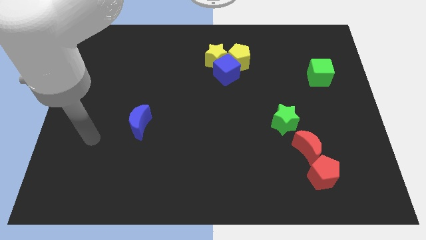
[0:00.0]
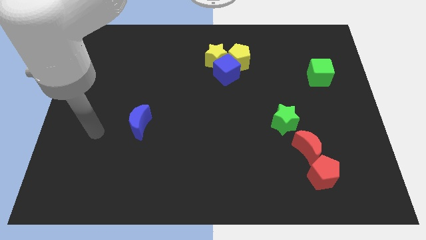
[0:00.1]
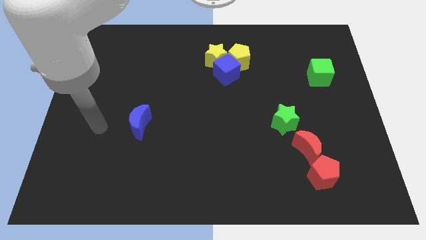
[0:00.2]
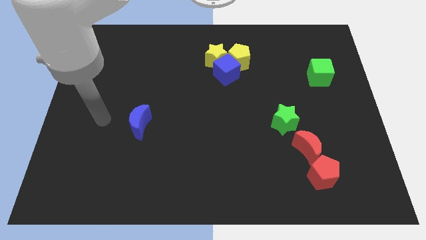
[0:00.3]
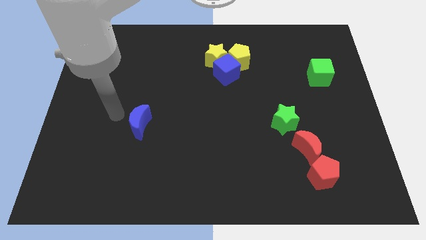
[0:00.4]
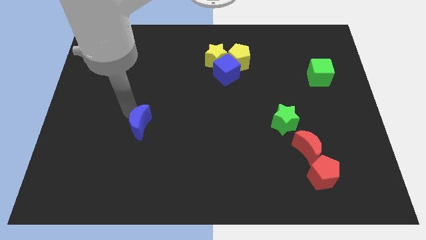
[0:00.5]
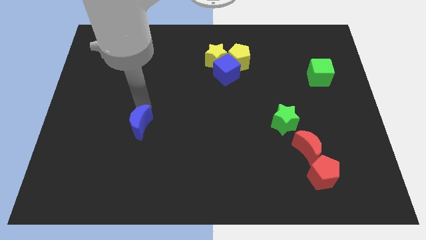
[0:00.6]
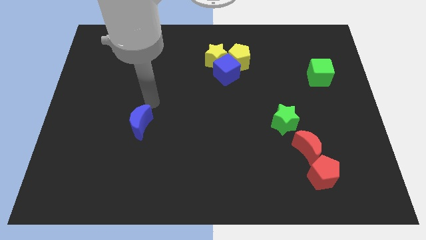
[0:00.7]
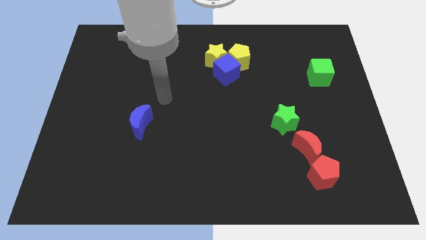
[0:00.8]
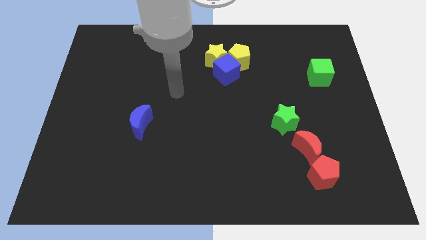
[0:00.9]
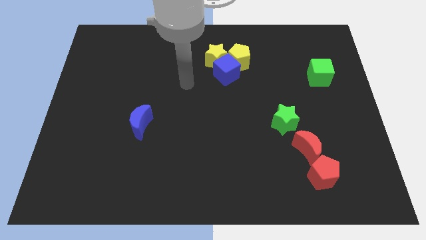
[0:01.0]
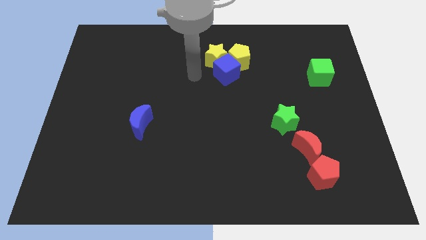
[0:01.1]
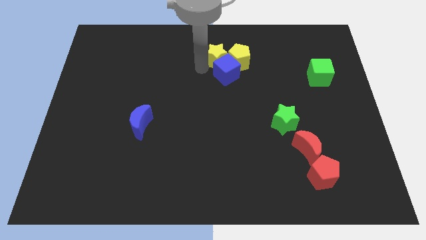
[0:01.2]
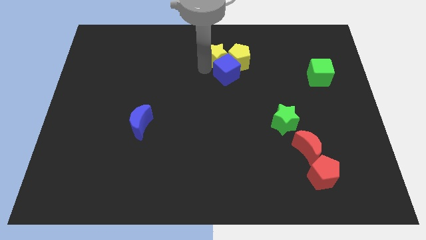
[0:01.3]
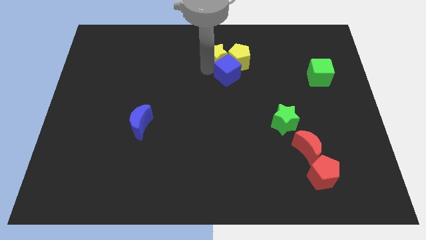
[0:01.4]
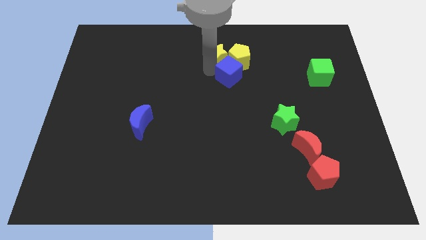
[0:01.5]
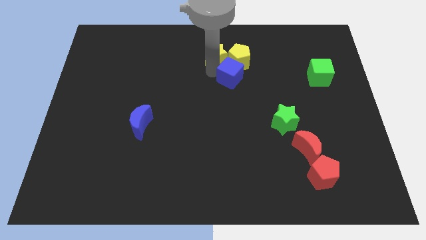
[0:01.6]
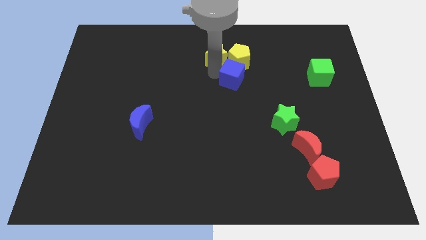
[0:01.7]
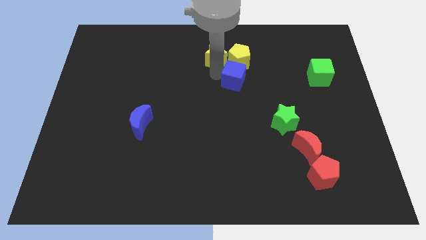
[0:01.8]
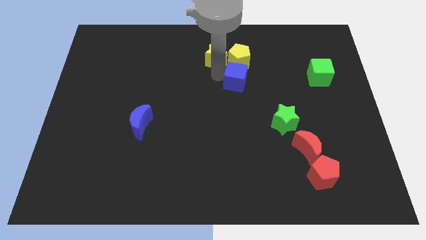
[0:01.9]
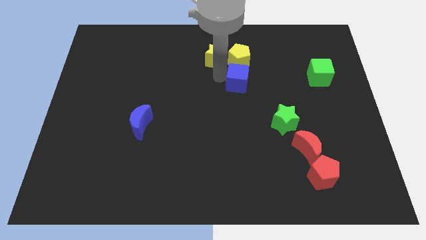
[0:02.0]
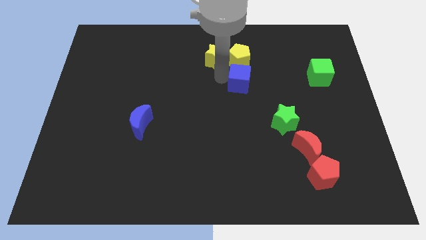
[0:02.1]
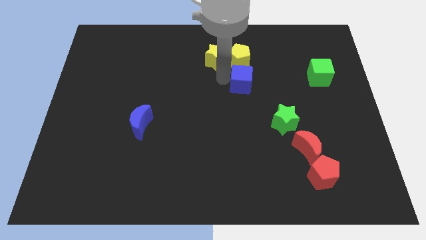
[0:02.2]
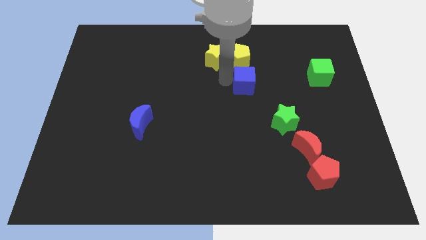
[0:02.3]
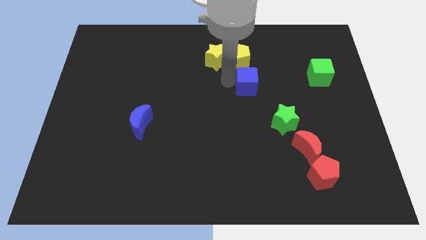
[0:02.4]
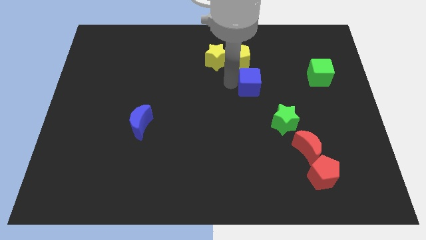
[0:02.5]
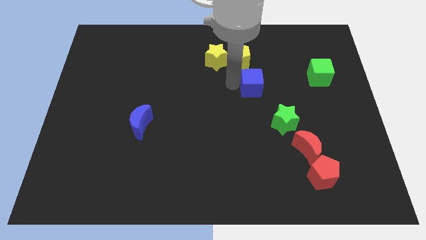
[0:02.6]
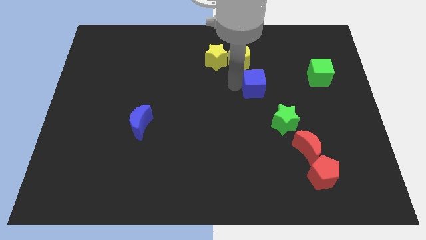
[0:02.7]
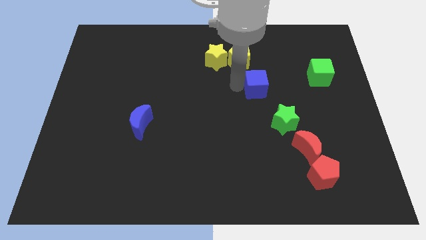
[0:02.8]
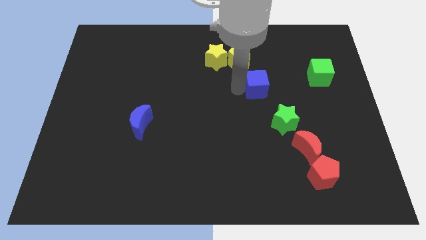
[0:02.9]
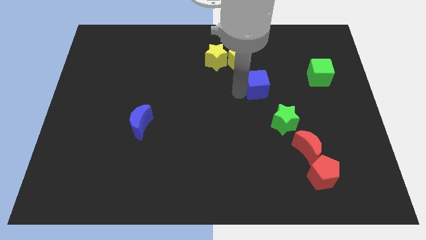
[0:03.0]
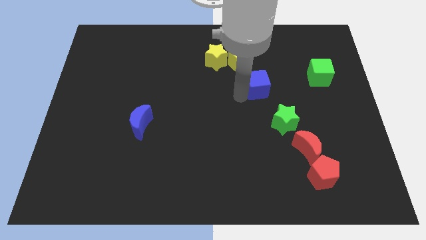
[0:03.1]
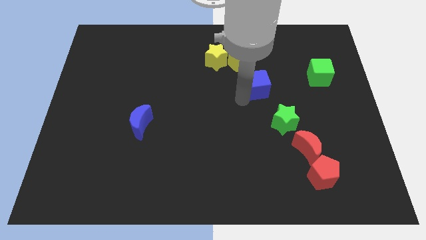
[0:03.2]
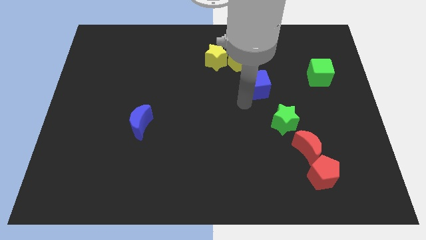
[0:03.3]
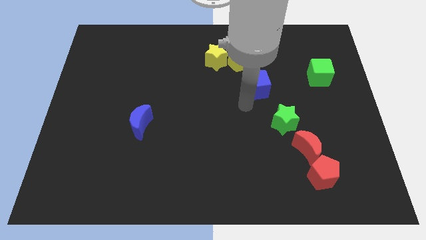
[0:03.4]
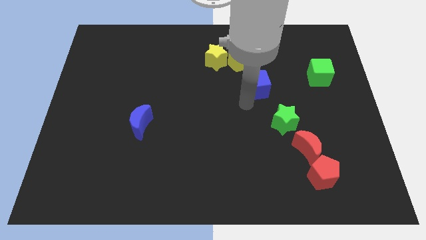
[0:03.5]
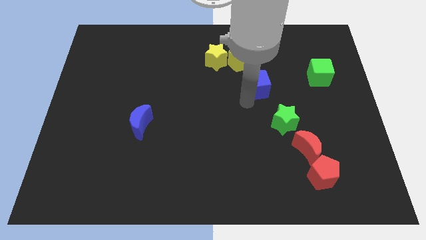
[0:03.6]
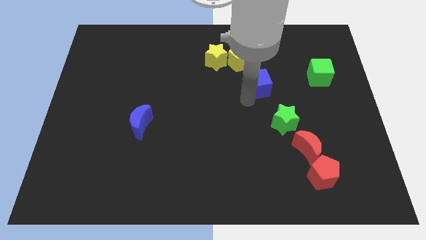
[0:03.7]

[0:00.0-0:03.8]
slightly slide the blue cube right

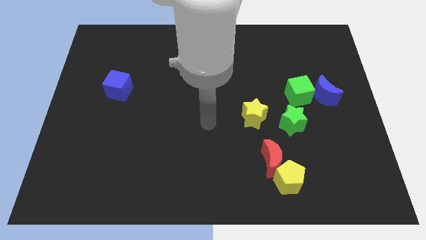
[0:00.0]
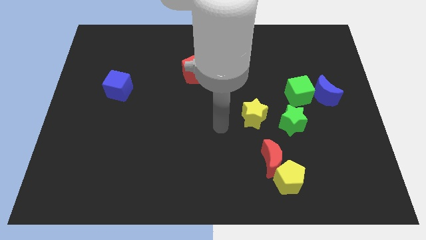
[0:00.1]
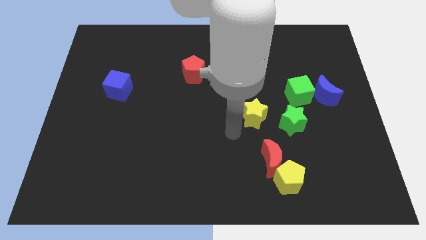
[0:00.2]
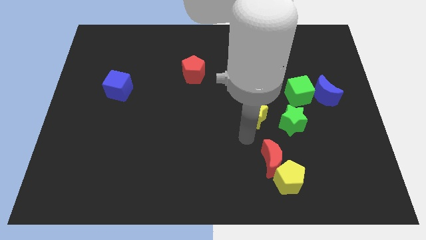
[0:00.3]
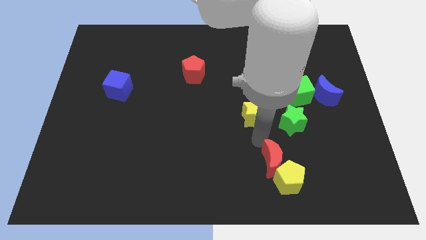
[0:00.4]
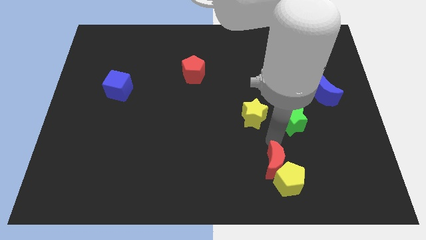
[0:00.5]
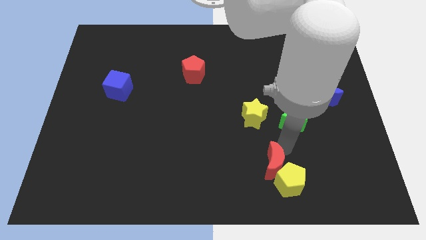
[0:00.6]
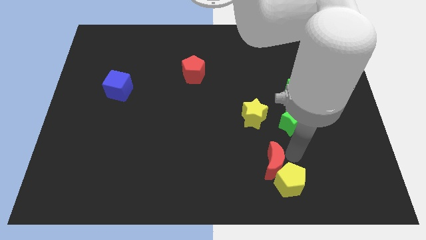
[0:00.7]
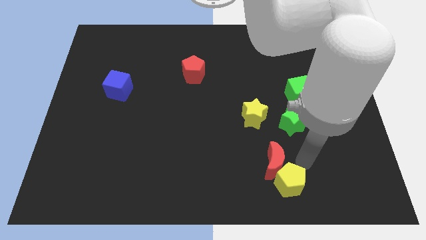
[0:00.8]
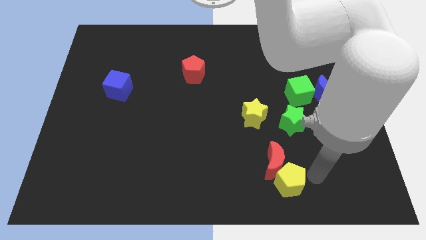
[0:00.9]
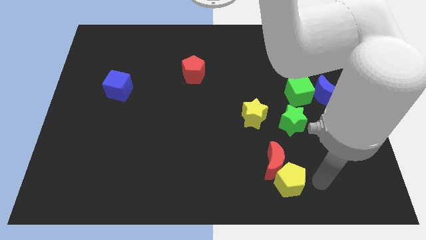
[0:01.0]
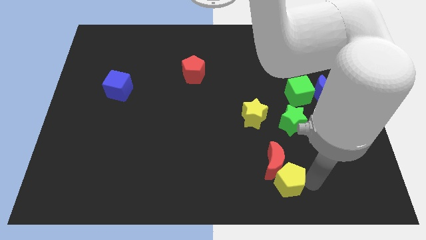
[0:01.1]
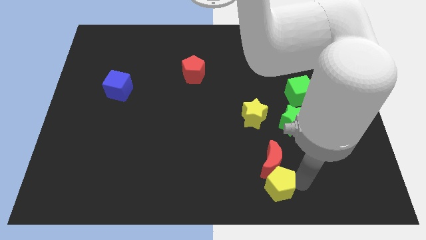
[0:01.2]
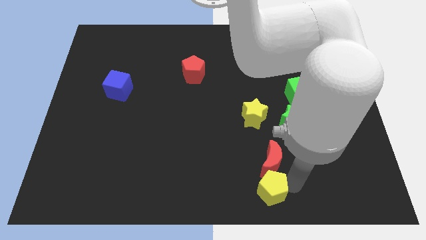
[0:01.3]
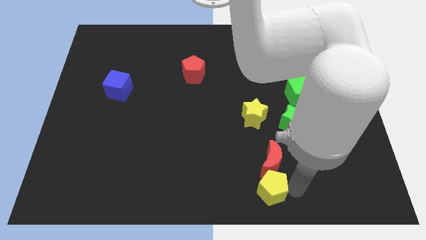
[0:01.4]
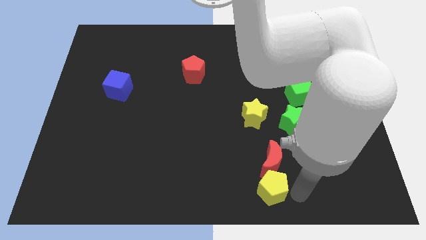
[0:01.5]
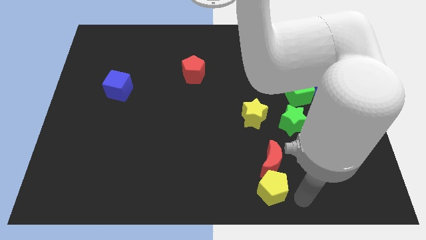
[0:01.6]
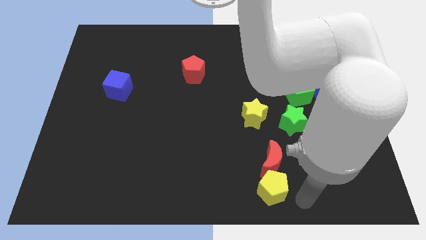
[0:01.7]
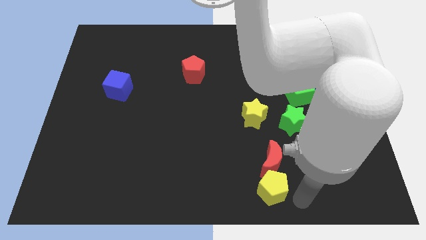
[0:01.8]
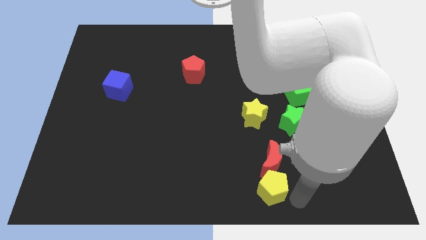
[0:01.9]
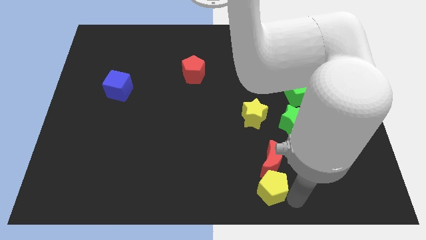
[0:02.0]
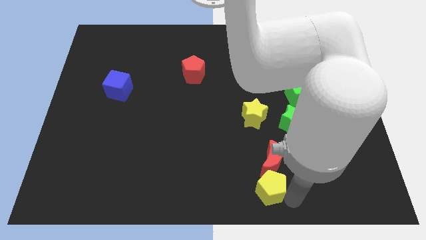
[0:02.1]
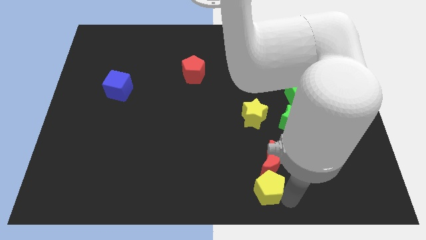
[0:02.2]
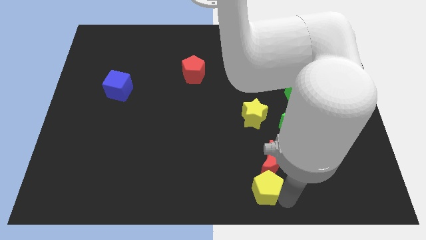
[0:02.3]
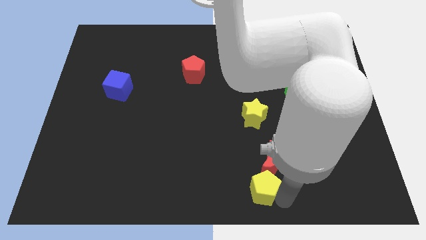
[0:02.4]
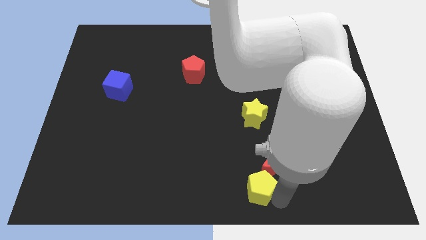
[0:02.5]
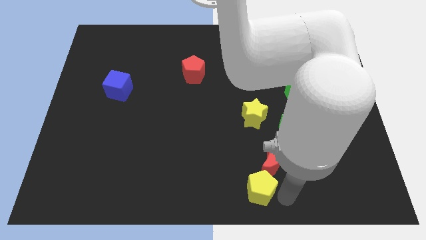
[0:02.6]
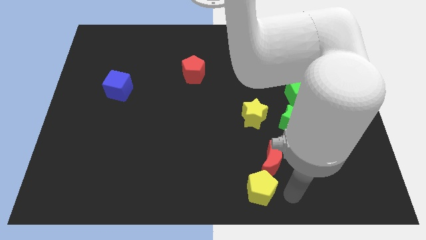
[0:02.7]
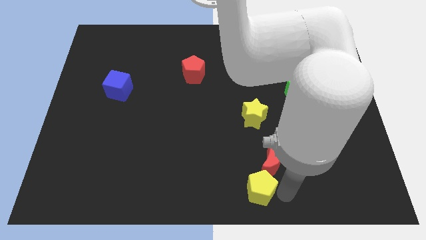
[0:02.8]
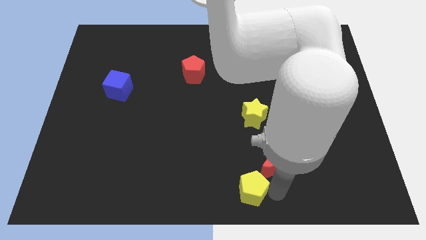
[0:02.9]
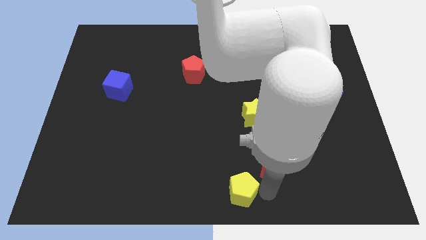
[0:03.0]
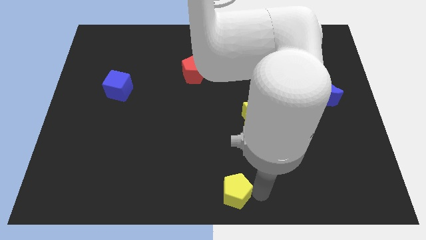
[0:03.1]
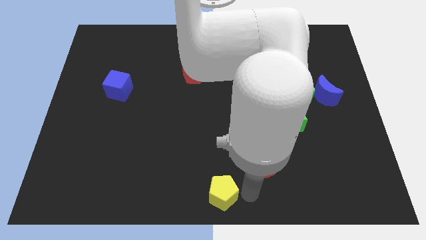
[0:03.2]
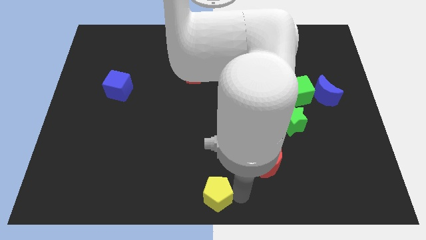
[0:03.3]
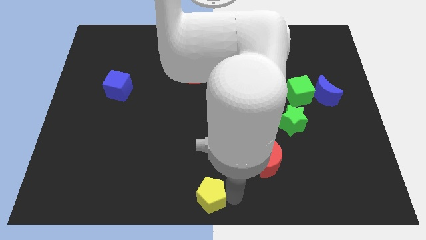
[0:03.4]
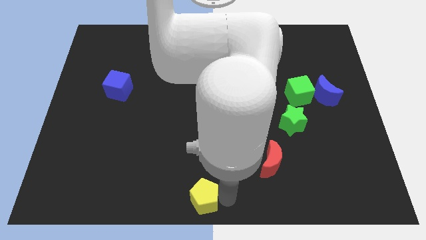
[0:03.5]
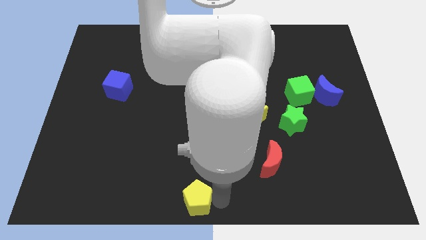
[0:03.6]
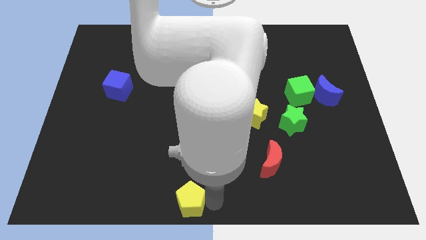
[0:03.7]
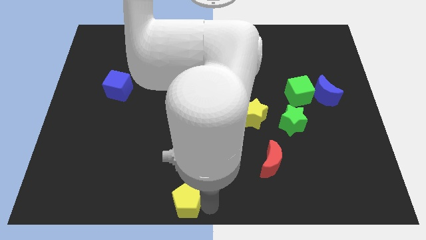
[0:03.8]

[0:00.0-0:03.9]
push the yellow pentagon to the left

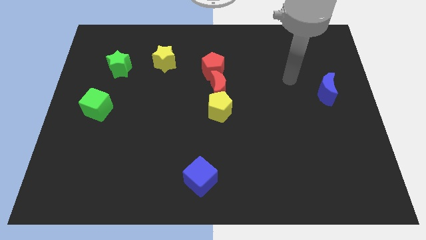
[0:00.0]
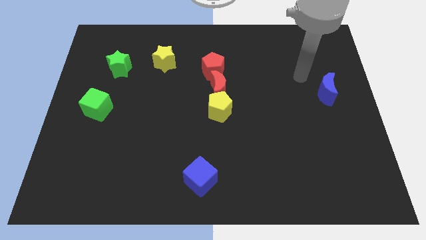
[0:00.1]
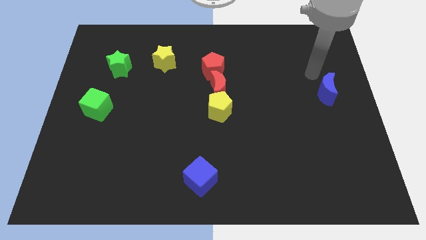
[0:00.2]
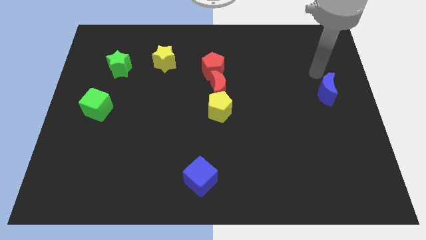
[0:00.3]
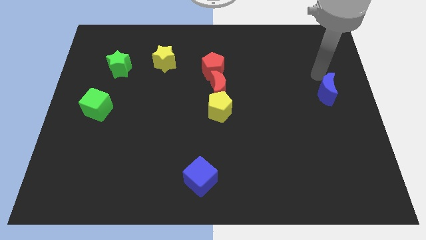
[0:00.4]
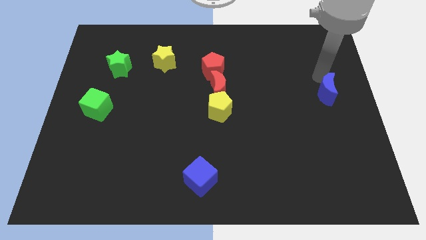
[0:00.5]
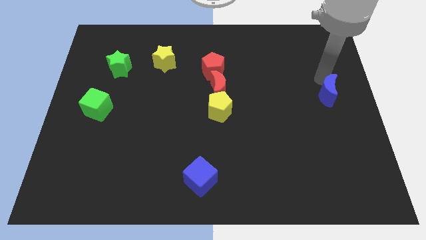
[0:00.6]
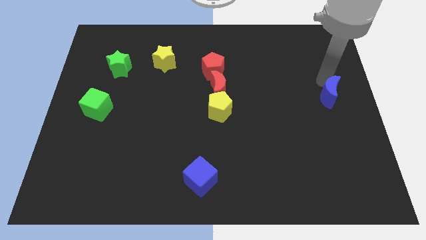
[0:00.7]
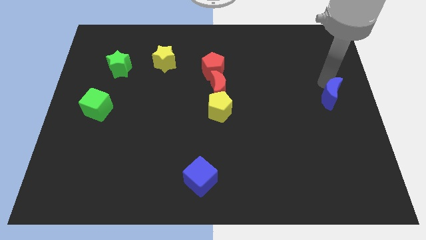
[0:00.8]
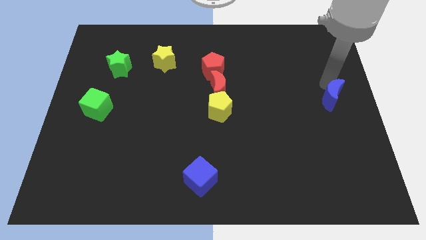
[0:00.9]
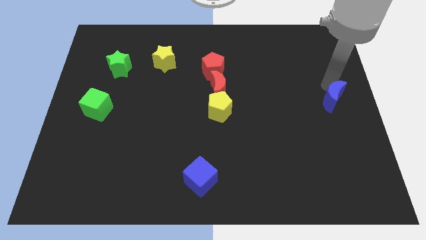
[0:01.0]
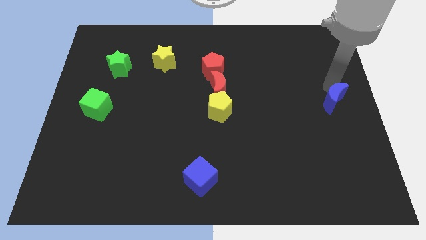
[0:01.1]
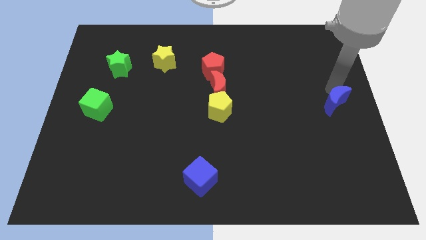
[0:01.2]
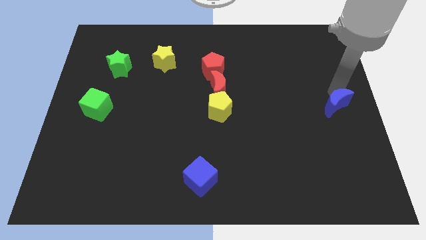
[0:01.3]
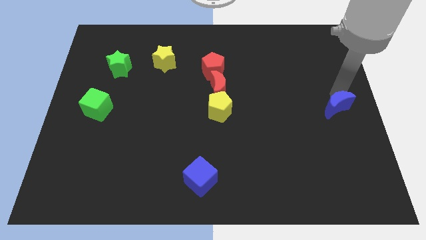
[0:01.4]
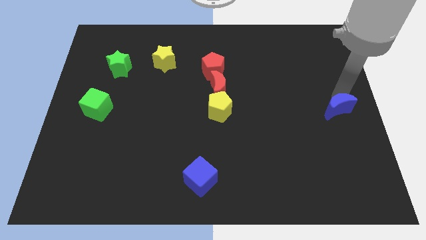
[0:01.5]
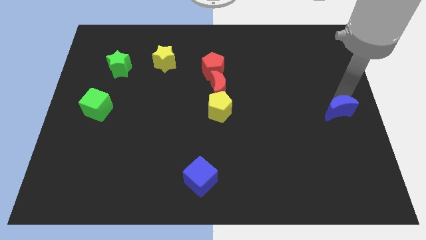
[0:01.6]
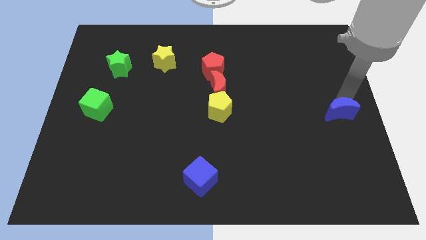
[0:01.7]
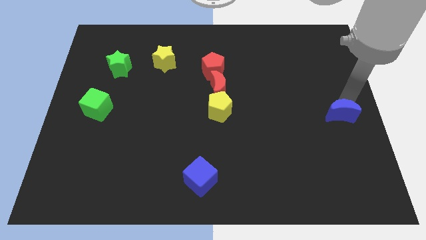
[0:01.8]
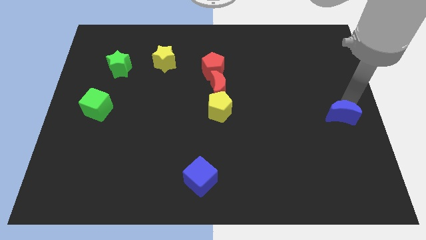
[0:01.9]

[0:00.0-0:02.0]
slightly slide the blue moon downwards
